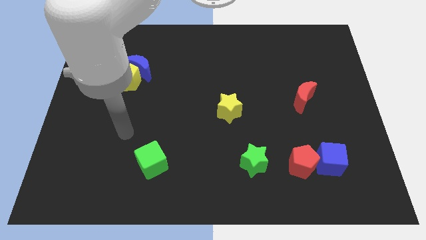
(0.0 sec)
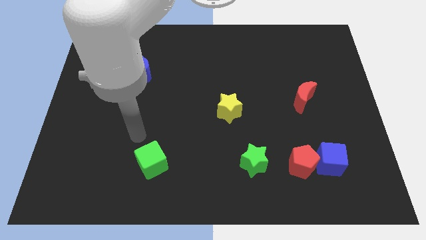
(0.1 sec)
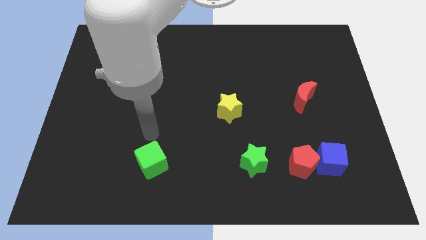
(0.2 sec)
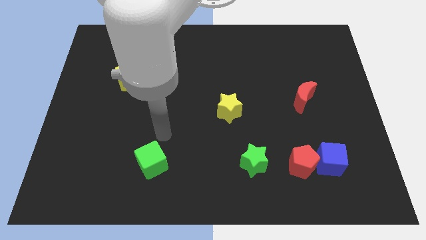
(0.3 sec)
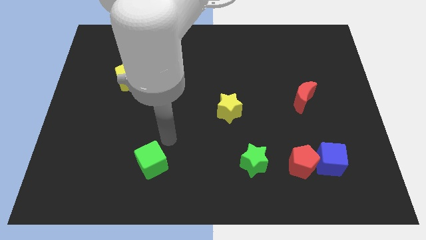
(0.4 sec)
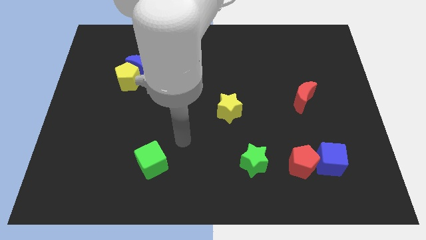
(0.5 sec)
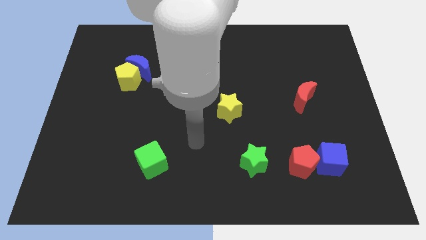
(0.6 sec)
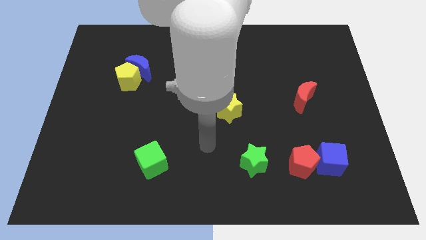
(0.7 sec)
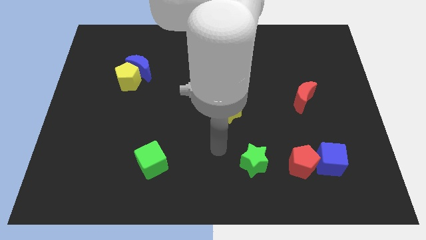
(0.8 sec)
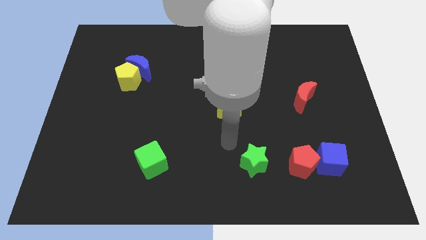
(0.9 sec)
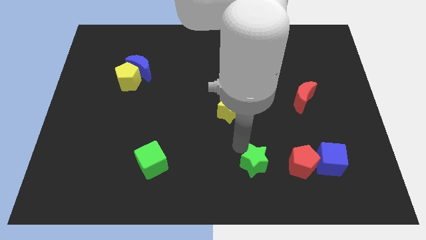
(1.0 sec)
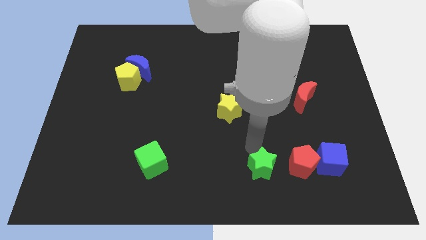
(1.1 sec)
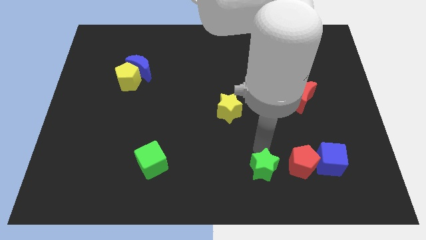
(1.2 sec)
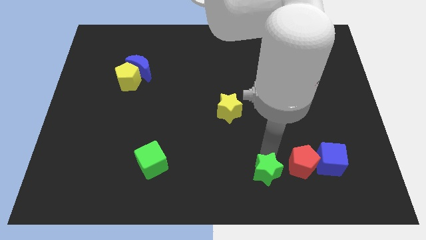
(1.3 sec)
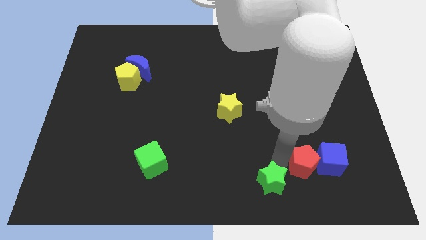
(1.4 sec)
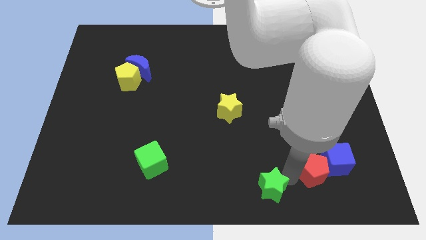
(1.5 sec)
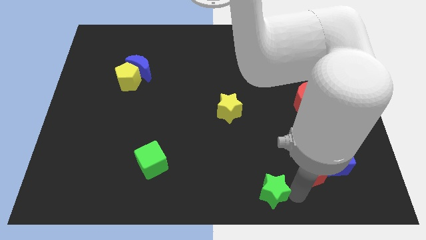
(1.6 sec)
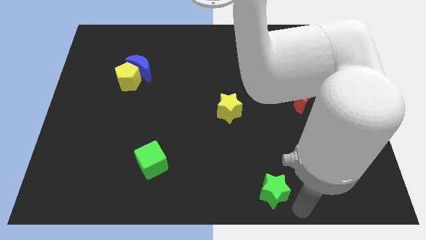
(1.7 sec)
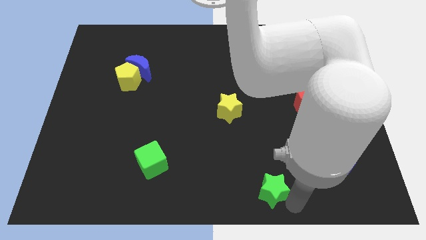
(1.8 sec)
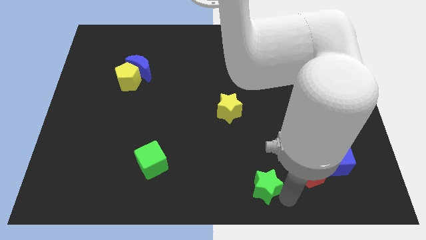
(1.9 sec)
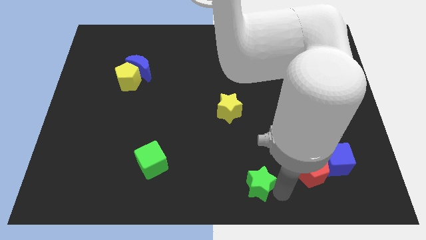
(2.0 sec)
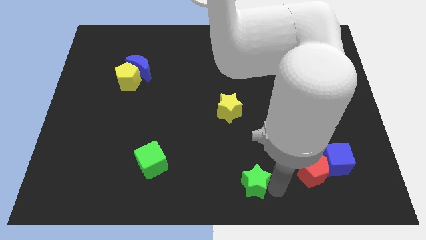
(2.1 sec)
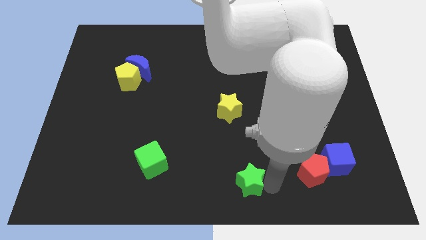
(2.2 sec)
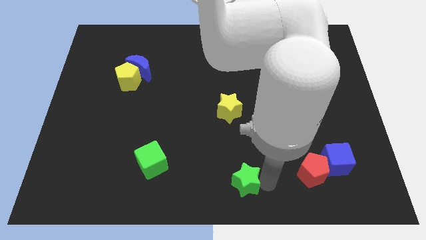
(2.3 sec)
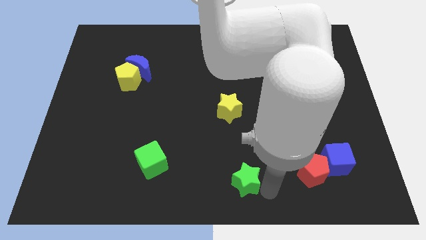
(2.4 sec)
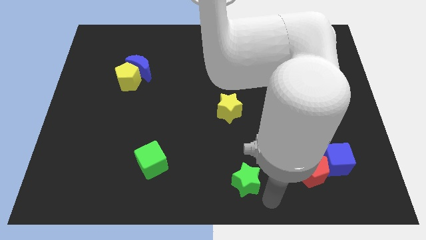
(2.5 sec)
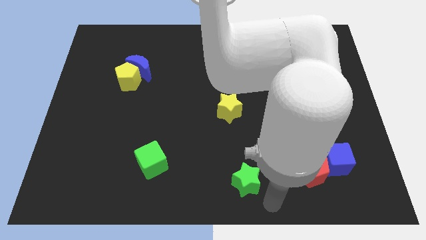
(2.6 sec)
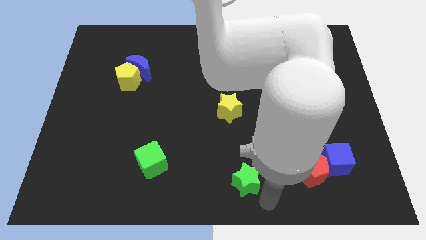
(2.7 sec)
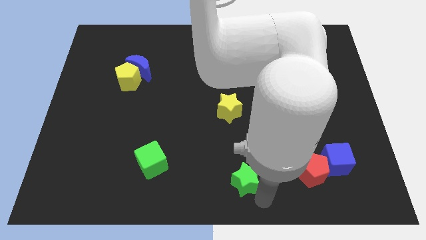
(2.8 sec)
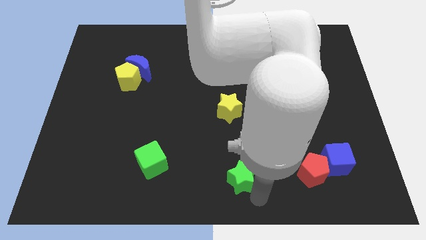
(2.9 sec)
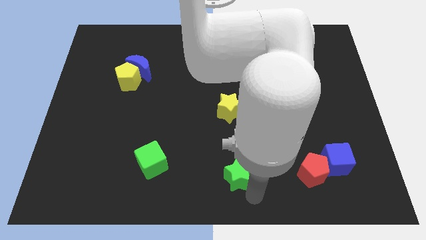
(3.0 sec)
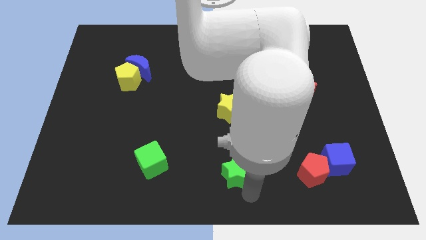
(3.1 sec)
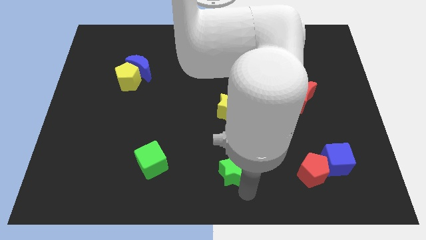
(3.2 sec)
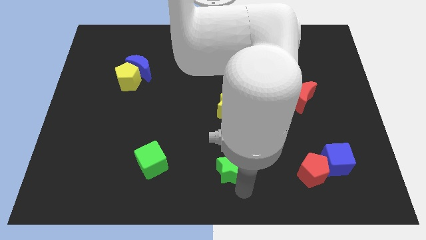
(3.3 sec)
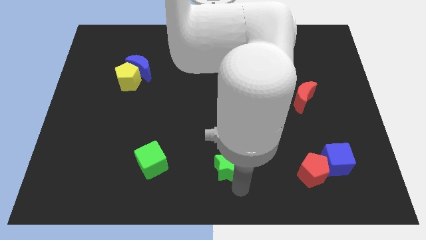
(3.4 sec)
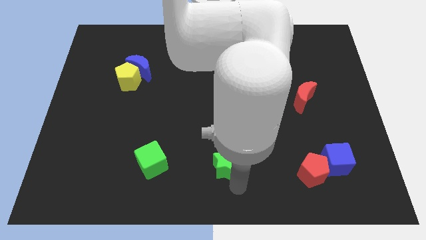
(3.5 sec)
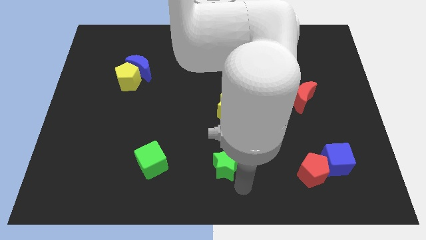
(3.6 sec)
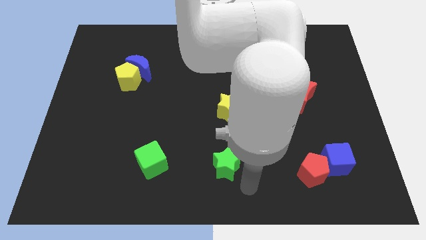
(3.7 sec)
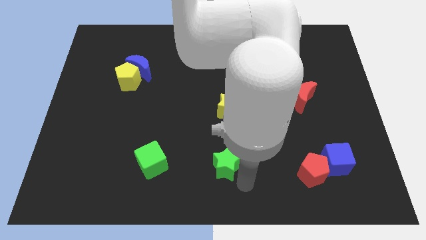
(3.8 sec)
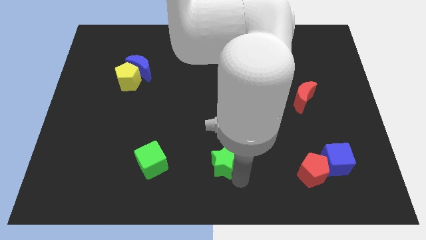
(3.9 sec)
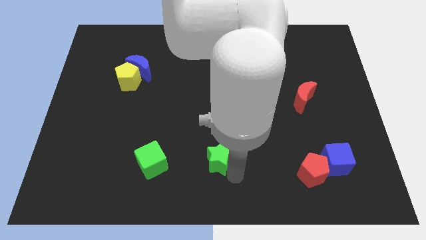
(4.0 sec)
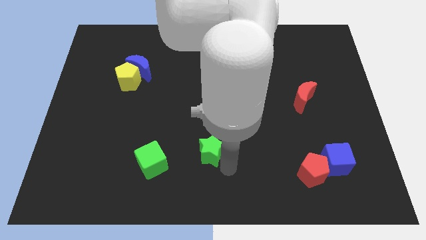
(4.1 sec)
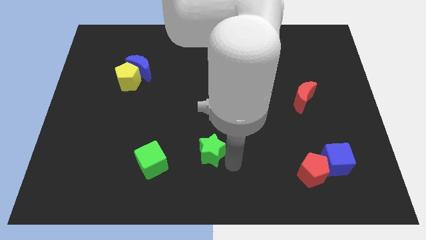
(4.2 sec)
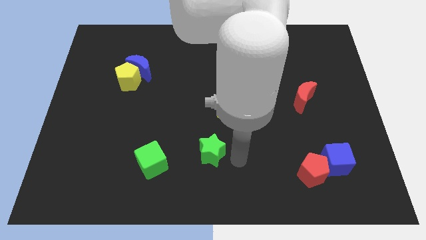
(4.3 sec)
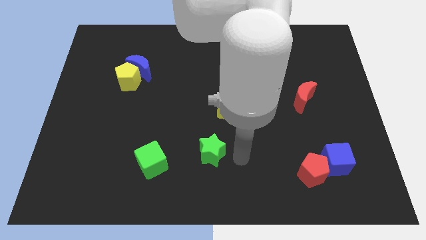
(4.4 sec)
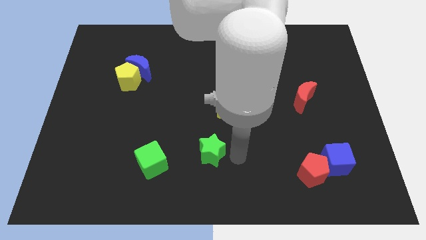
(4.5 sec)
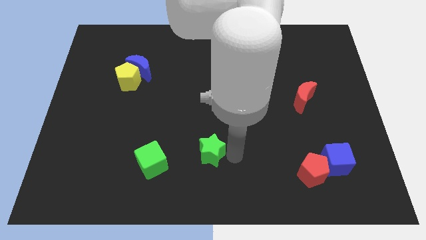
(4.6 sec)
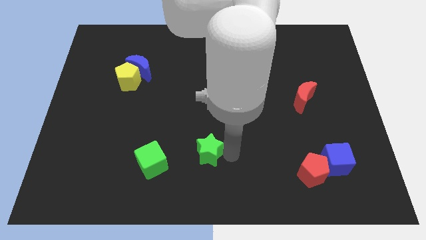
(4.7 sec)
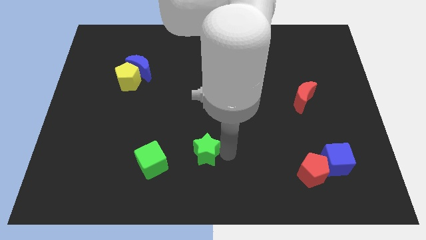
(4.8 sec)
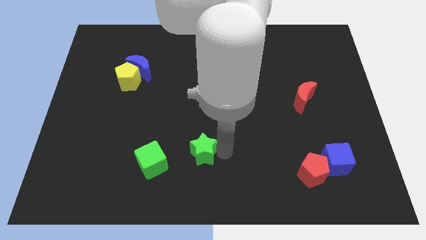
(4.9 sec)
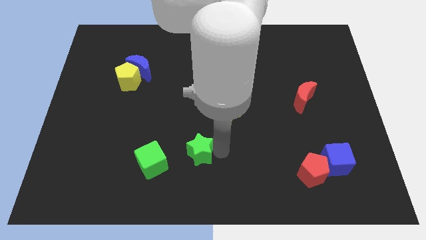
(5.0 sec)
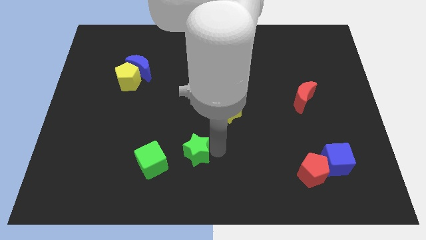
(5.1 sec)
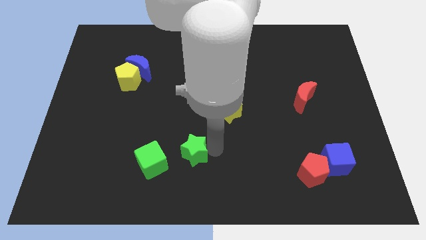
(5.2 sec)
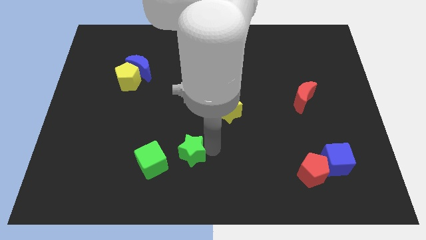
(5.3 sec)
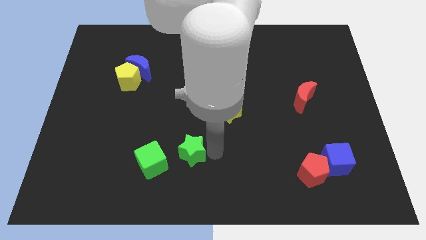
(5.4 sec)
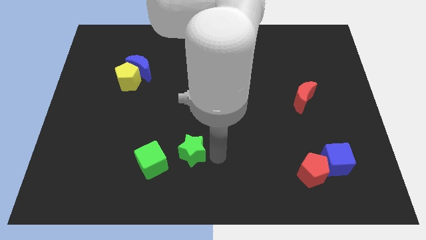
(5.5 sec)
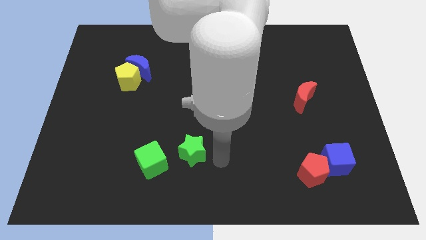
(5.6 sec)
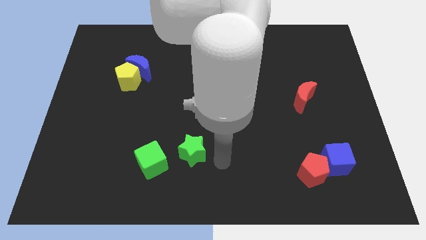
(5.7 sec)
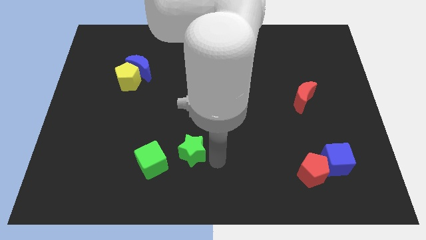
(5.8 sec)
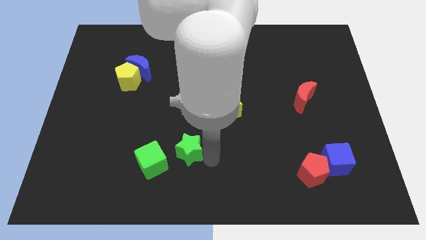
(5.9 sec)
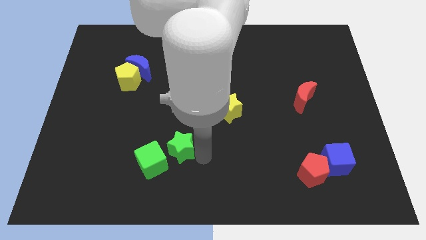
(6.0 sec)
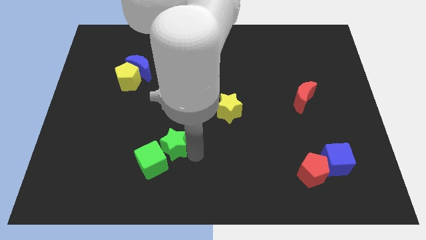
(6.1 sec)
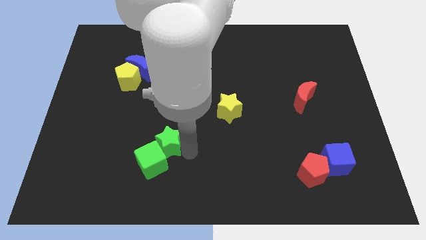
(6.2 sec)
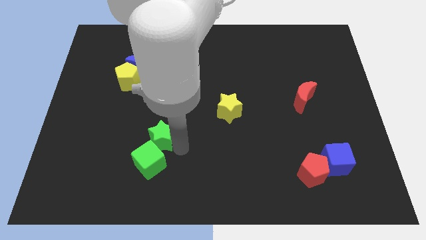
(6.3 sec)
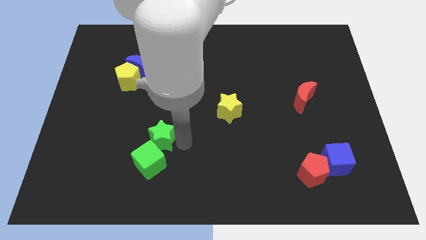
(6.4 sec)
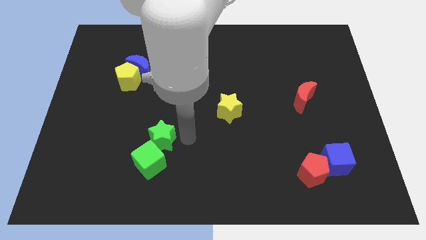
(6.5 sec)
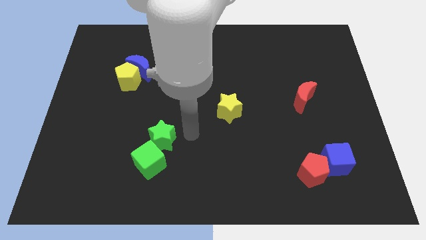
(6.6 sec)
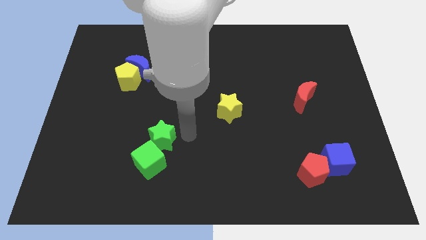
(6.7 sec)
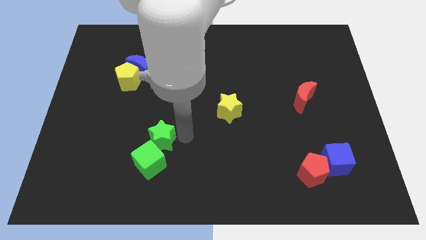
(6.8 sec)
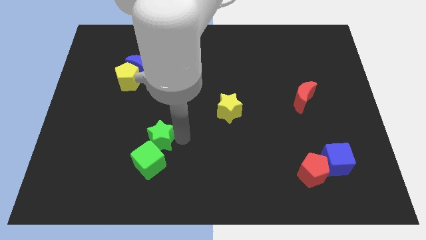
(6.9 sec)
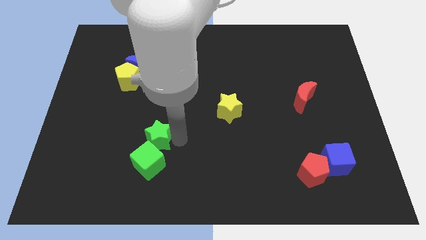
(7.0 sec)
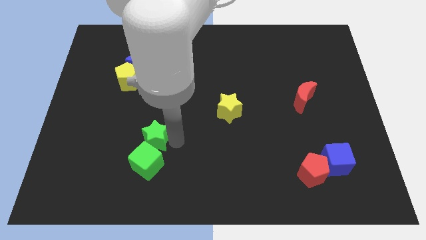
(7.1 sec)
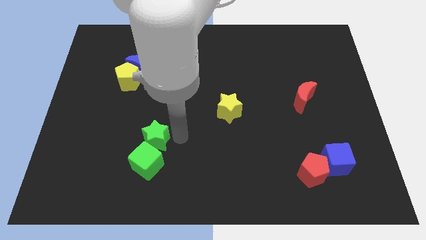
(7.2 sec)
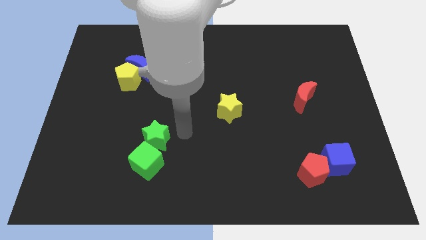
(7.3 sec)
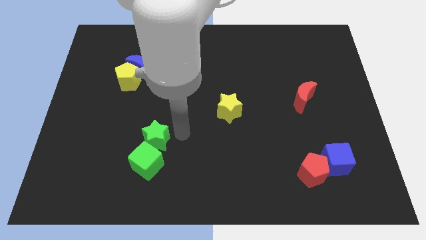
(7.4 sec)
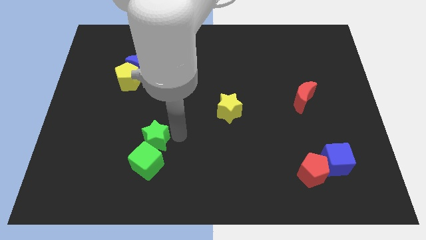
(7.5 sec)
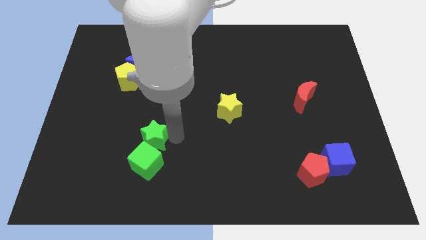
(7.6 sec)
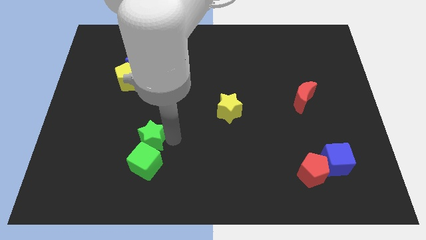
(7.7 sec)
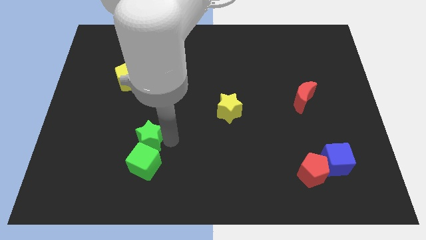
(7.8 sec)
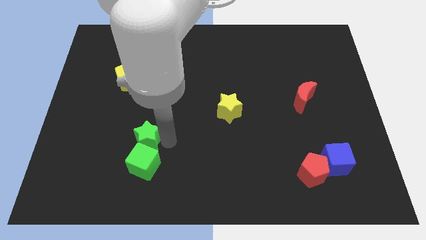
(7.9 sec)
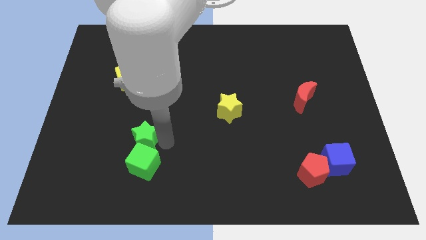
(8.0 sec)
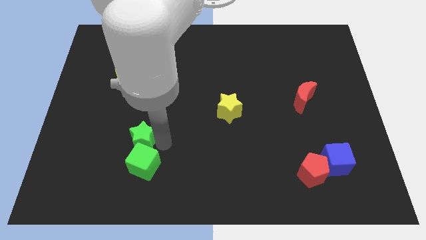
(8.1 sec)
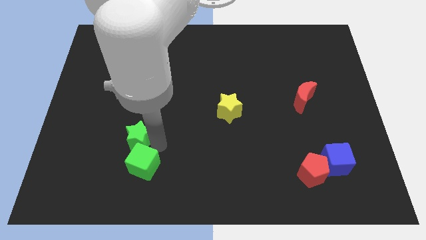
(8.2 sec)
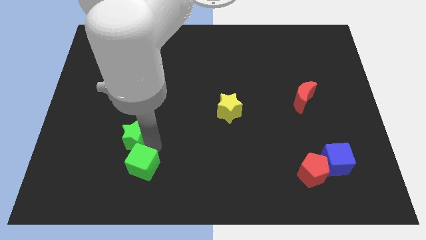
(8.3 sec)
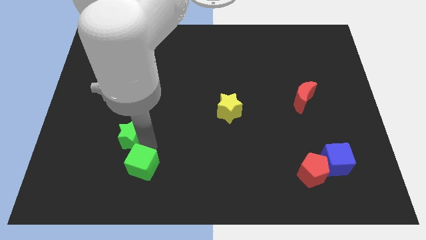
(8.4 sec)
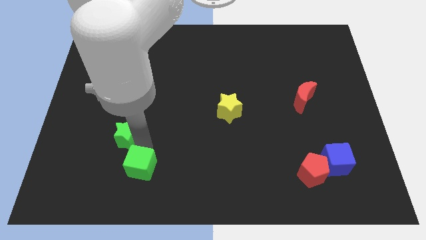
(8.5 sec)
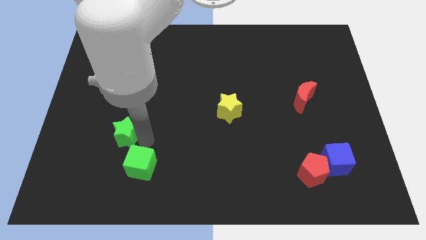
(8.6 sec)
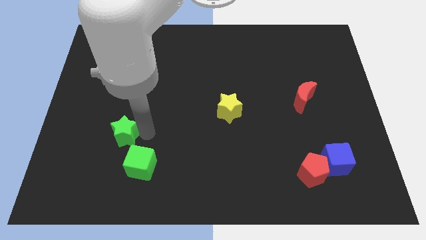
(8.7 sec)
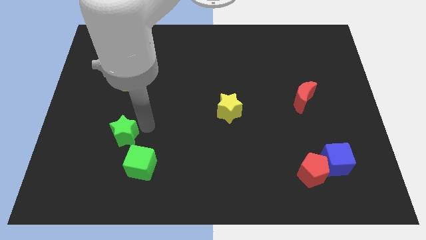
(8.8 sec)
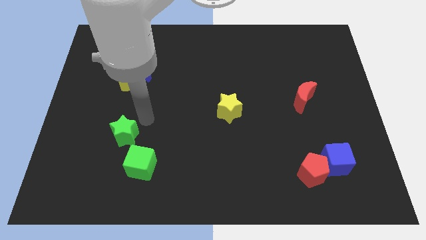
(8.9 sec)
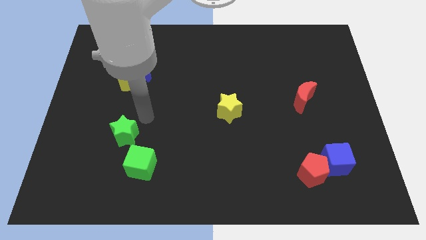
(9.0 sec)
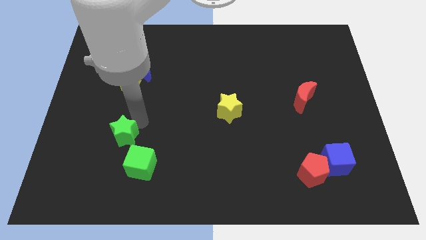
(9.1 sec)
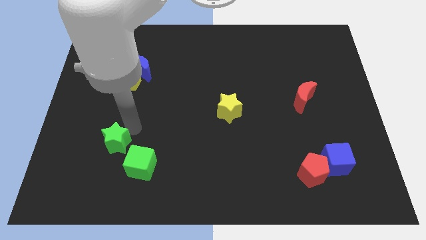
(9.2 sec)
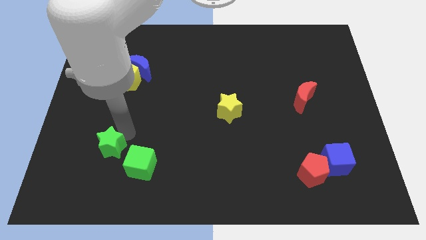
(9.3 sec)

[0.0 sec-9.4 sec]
put the green star to the left side of the green cube
